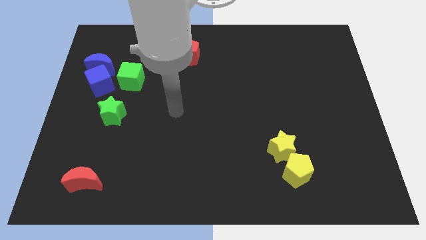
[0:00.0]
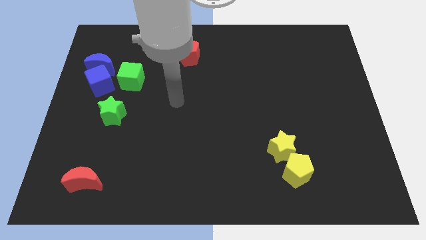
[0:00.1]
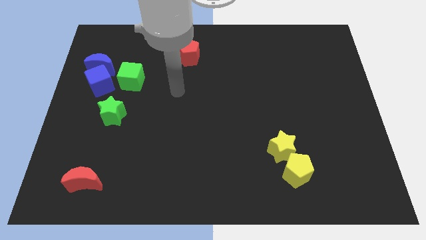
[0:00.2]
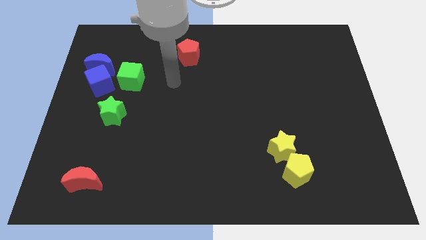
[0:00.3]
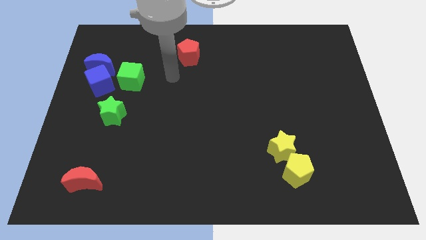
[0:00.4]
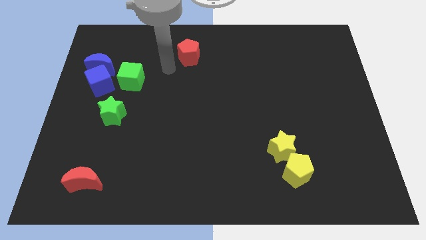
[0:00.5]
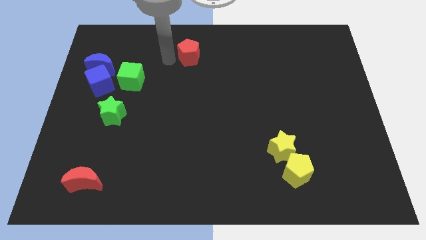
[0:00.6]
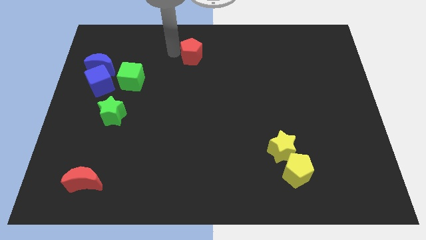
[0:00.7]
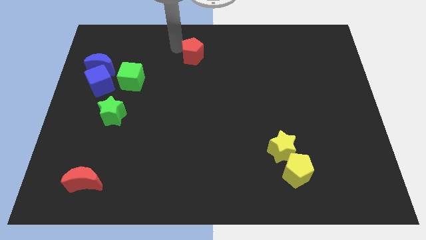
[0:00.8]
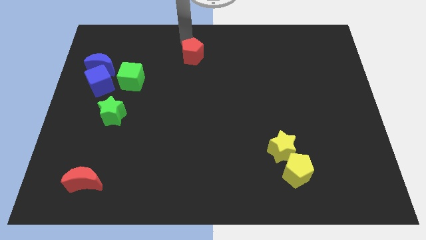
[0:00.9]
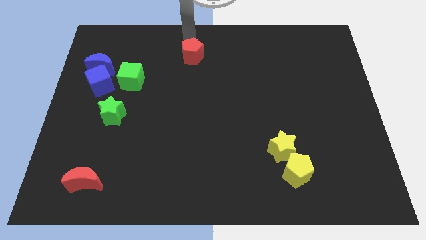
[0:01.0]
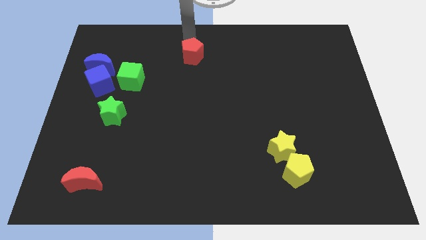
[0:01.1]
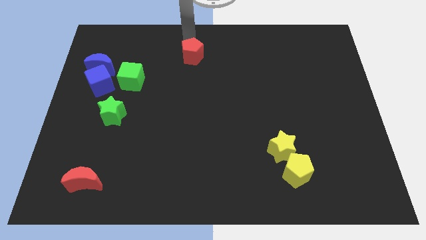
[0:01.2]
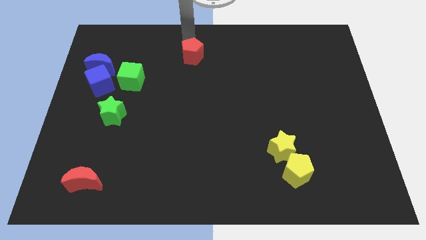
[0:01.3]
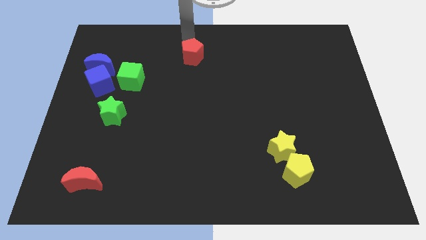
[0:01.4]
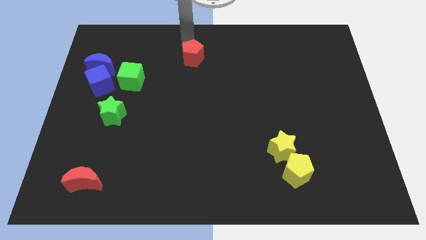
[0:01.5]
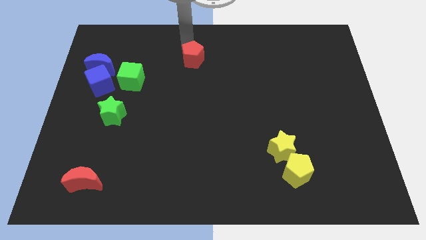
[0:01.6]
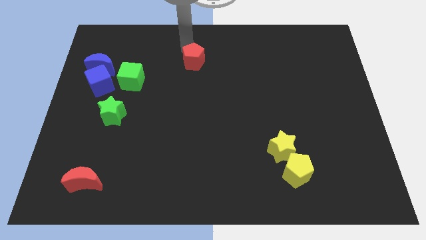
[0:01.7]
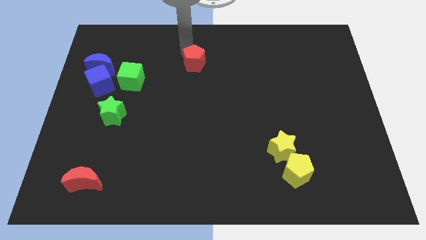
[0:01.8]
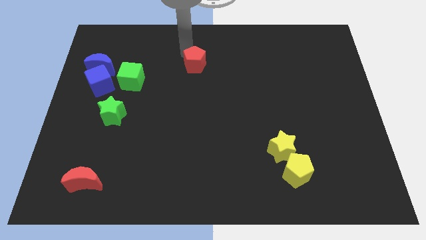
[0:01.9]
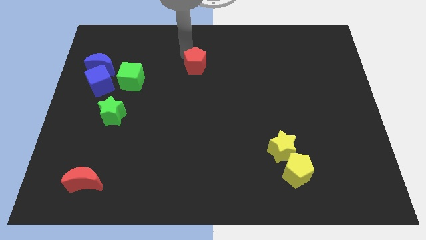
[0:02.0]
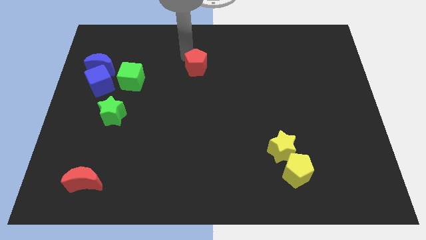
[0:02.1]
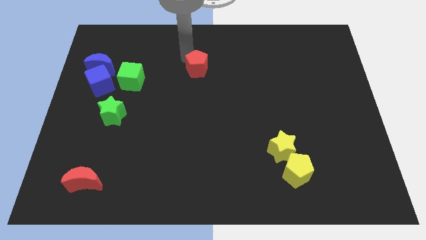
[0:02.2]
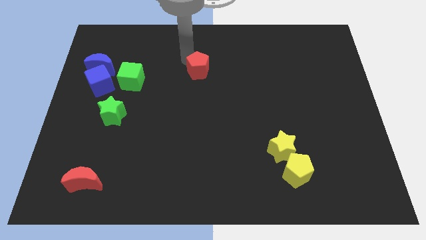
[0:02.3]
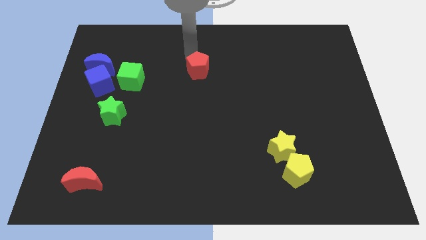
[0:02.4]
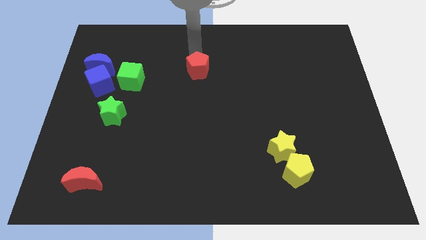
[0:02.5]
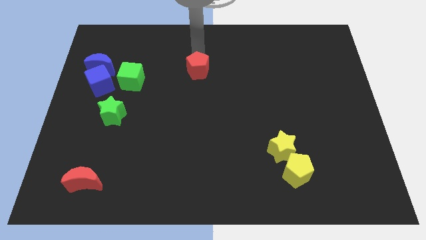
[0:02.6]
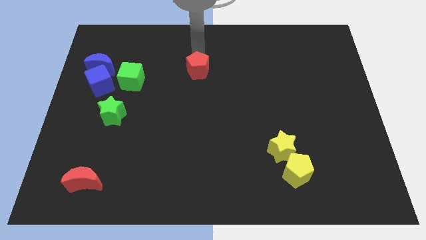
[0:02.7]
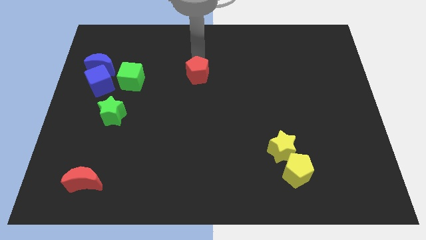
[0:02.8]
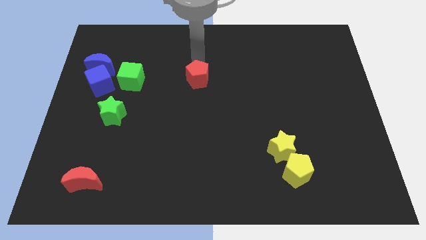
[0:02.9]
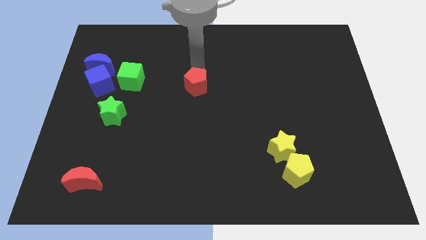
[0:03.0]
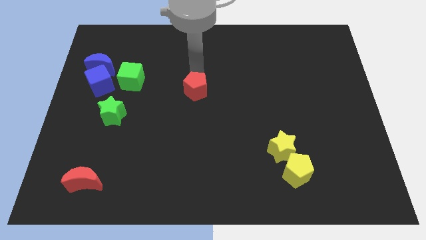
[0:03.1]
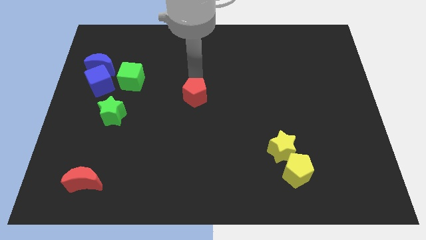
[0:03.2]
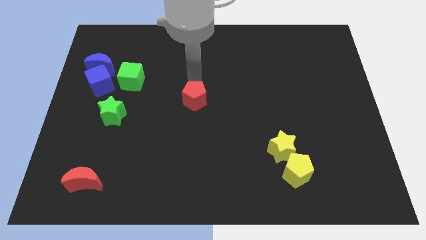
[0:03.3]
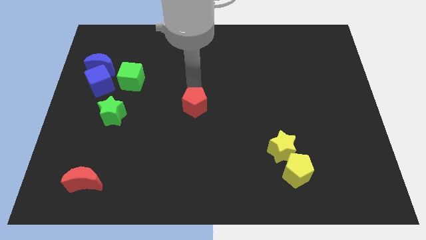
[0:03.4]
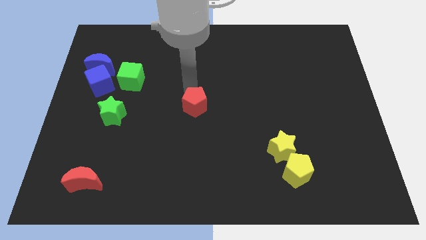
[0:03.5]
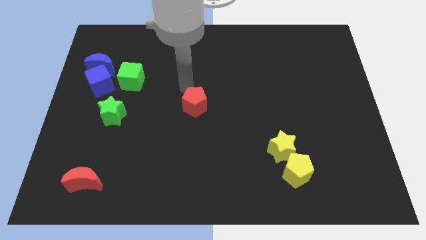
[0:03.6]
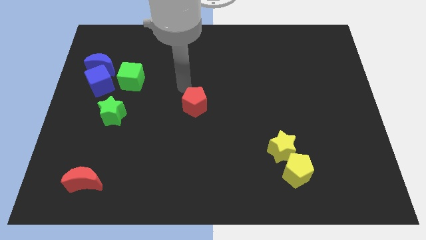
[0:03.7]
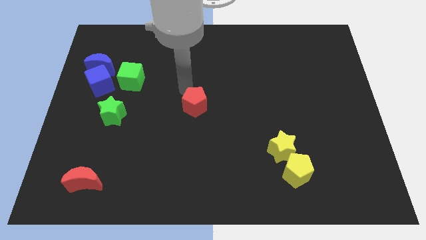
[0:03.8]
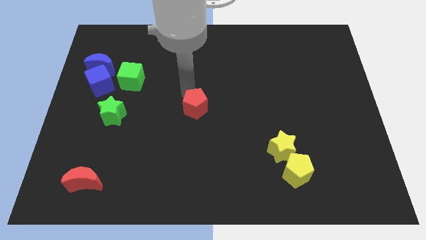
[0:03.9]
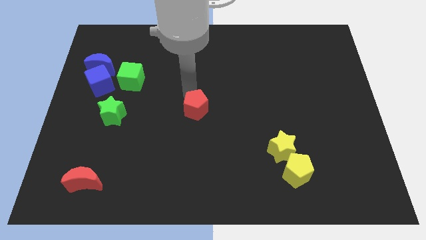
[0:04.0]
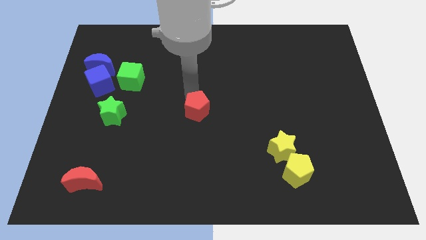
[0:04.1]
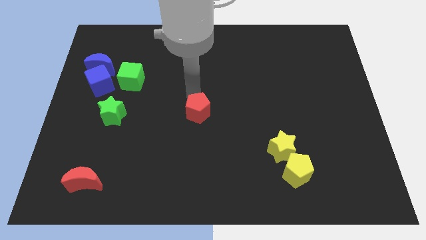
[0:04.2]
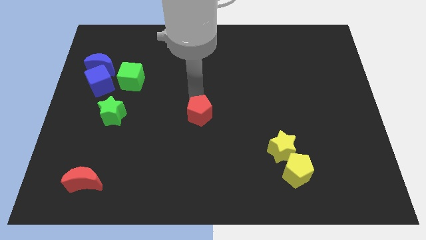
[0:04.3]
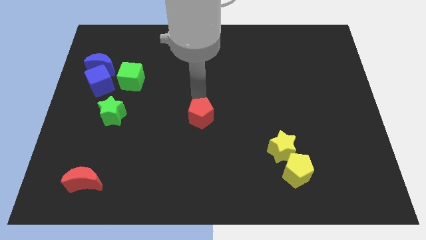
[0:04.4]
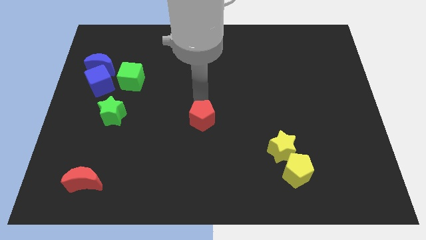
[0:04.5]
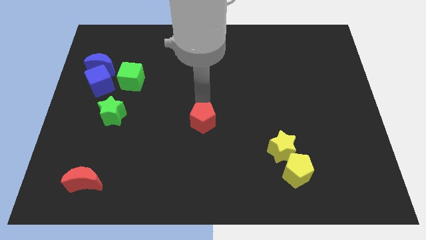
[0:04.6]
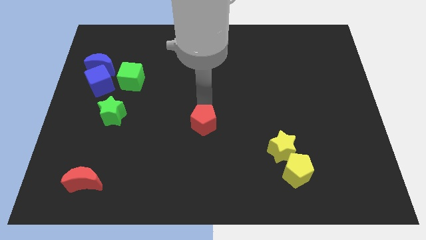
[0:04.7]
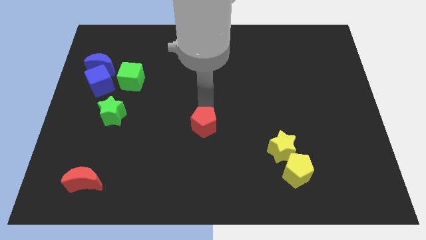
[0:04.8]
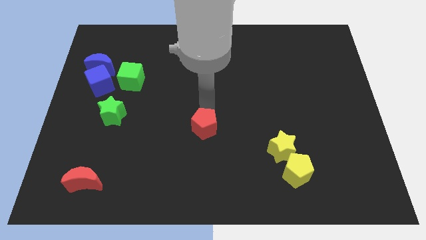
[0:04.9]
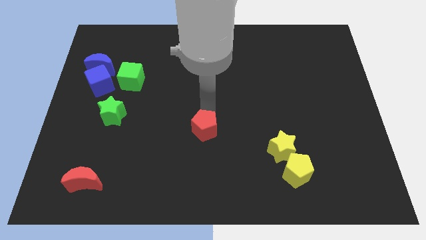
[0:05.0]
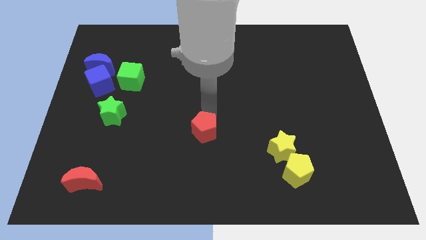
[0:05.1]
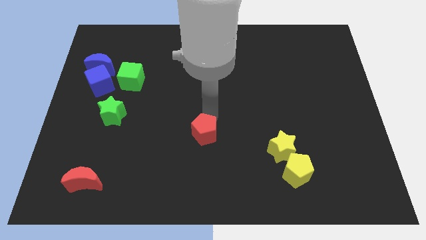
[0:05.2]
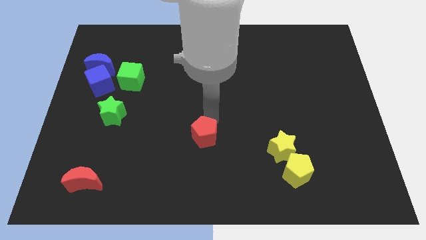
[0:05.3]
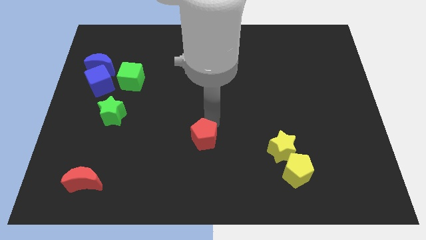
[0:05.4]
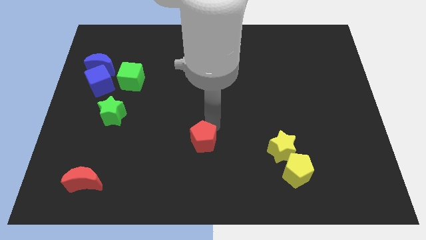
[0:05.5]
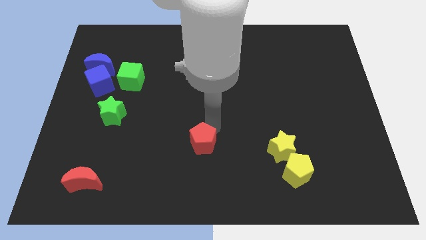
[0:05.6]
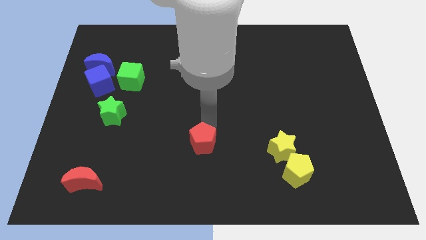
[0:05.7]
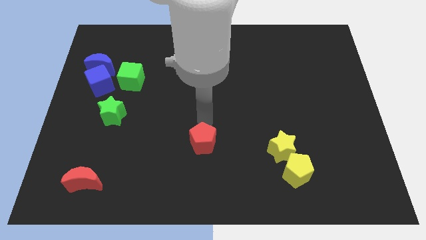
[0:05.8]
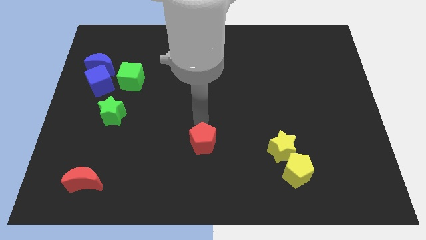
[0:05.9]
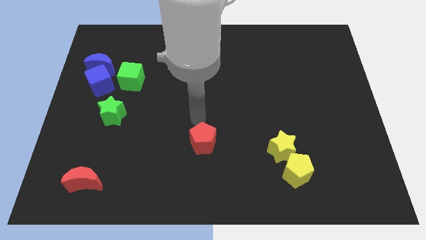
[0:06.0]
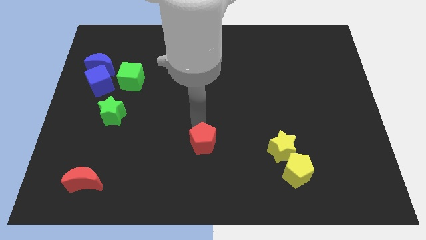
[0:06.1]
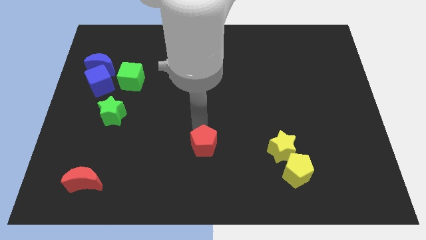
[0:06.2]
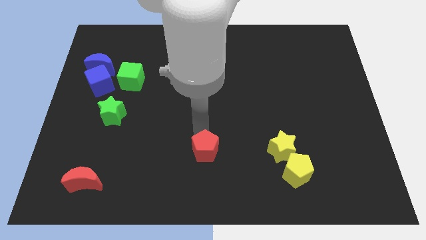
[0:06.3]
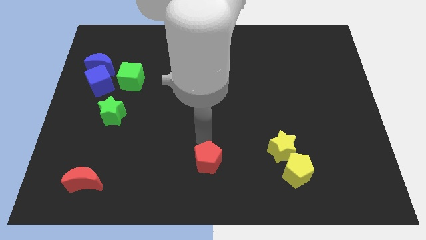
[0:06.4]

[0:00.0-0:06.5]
slide the red pentagon to the bottom
